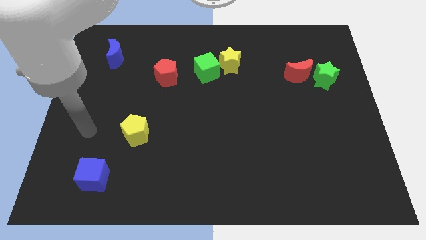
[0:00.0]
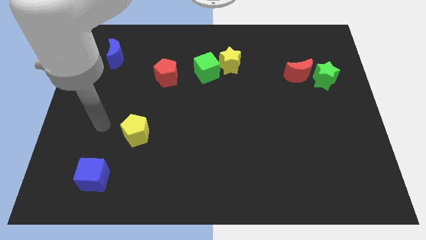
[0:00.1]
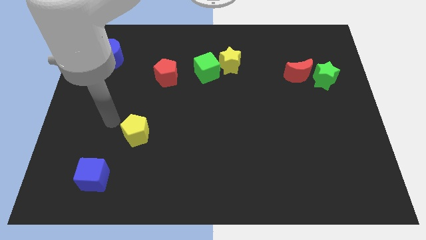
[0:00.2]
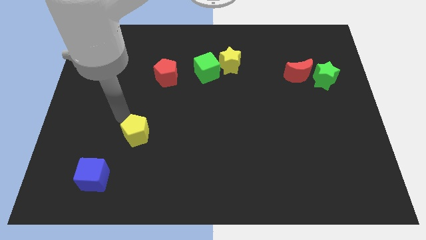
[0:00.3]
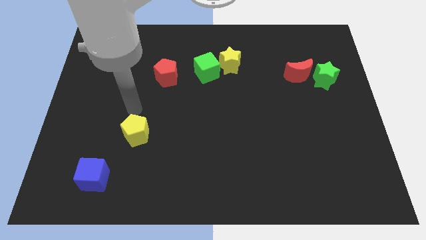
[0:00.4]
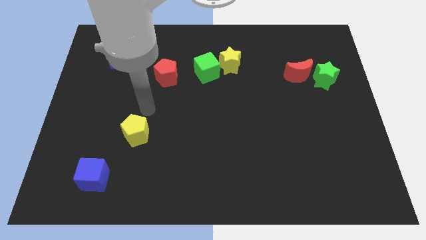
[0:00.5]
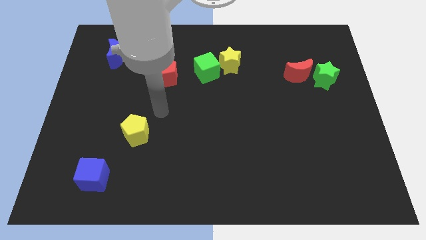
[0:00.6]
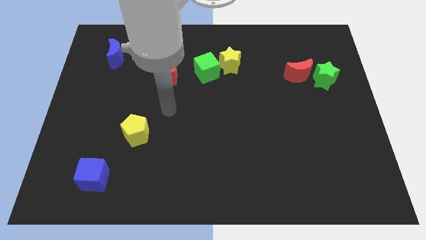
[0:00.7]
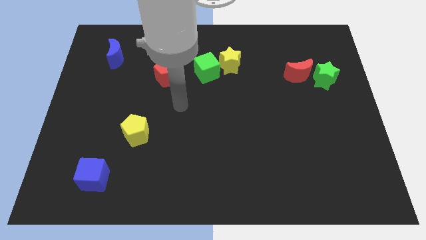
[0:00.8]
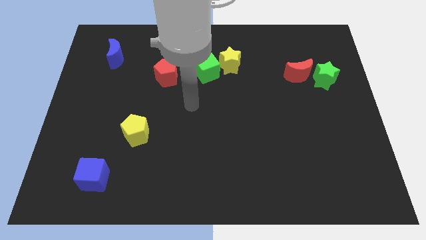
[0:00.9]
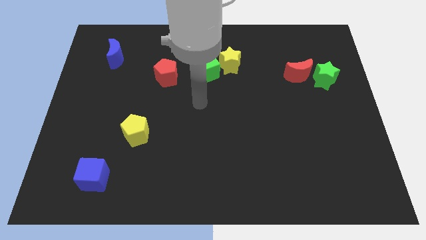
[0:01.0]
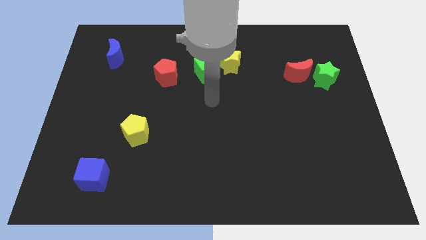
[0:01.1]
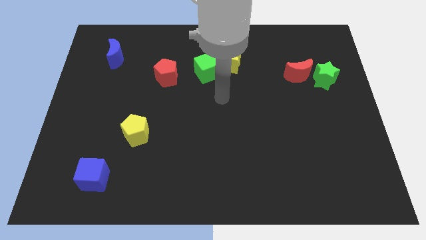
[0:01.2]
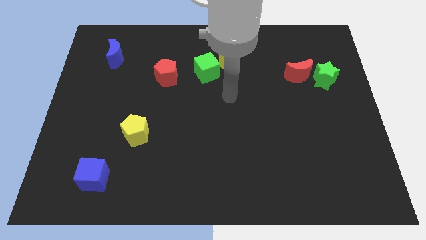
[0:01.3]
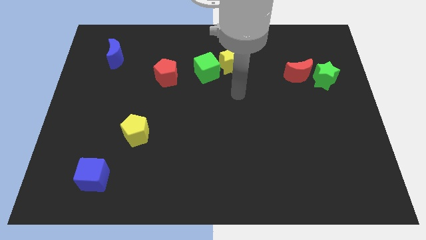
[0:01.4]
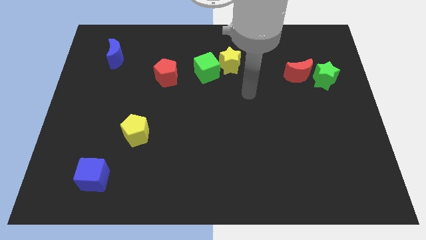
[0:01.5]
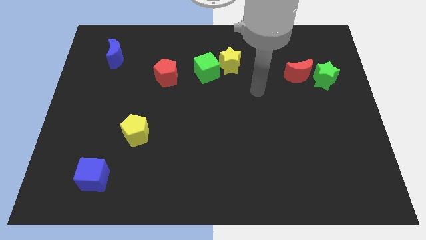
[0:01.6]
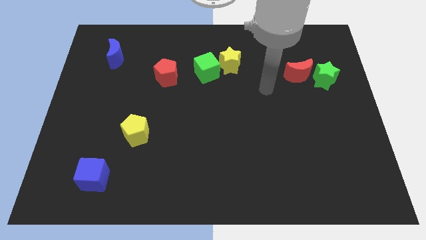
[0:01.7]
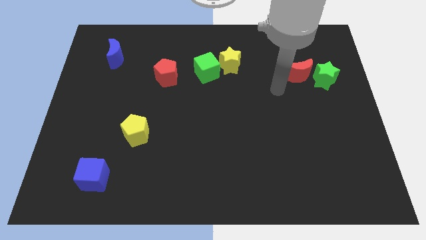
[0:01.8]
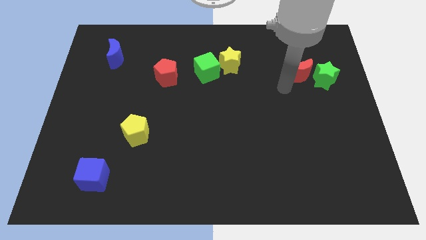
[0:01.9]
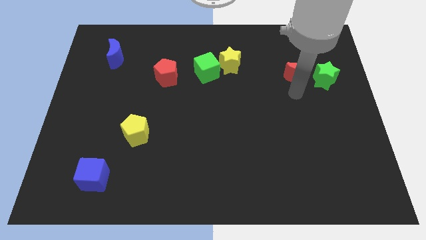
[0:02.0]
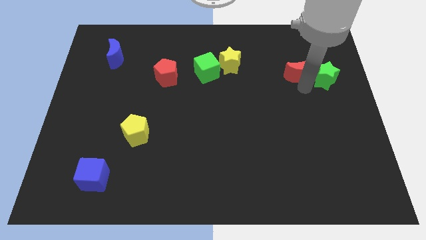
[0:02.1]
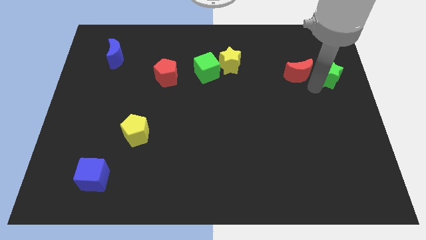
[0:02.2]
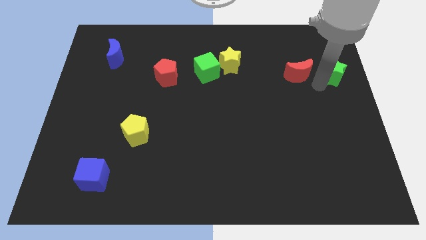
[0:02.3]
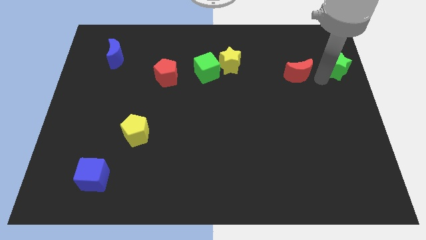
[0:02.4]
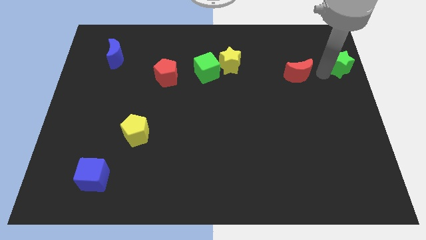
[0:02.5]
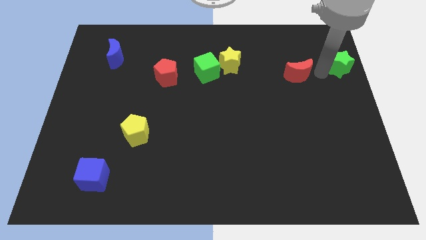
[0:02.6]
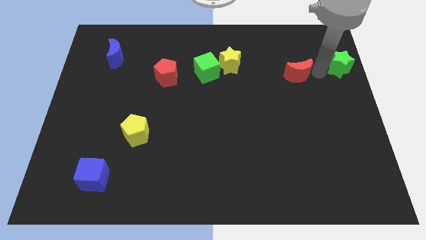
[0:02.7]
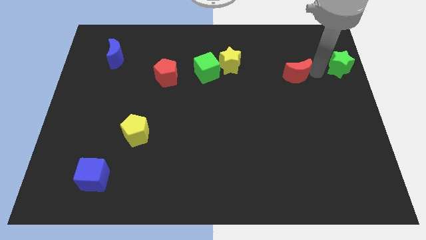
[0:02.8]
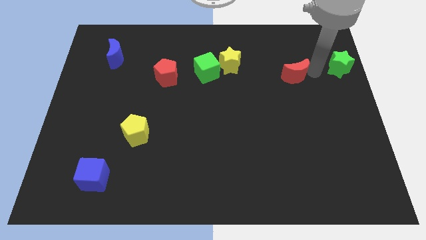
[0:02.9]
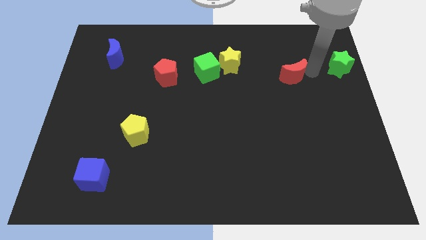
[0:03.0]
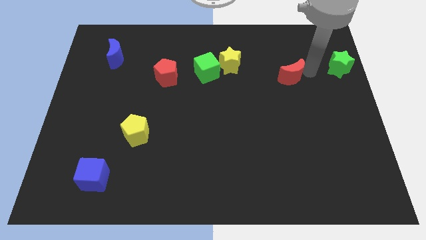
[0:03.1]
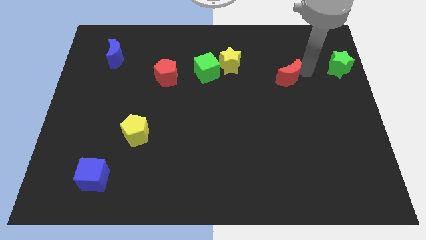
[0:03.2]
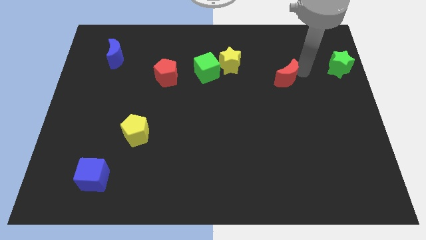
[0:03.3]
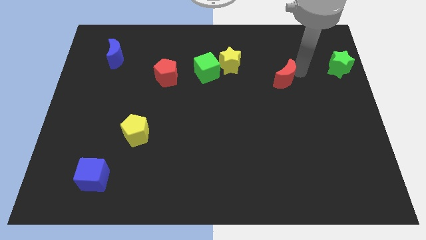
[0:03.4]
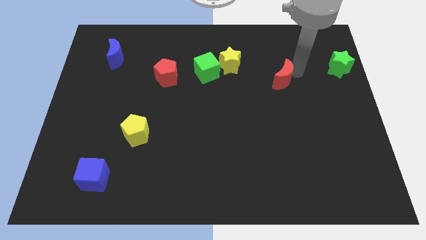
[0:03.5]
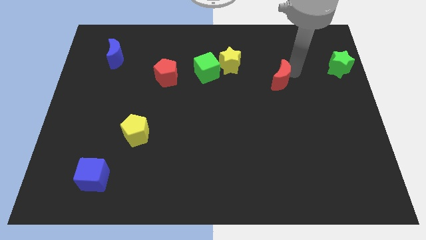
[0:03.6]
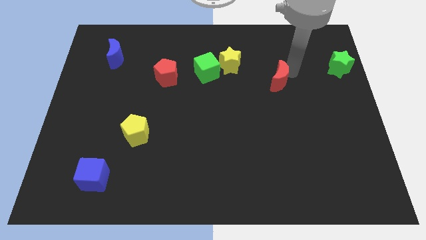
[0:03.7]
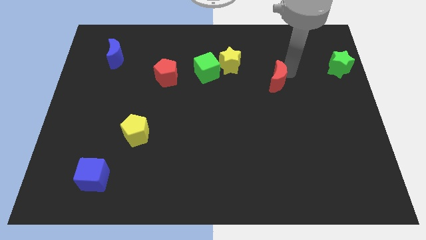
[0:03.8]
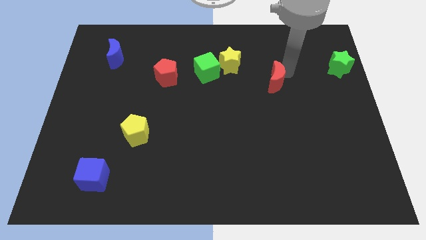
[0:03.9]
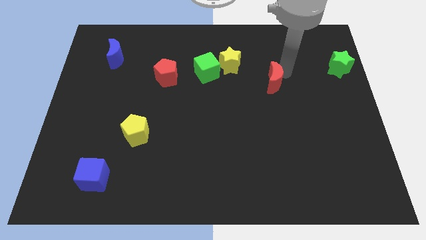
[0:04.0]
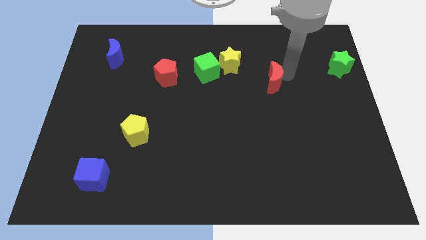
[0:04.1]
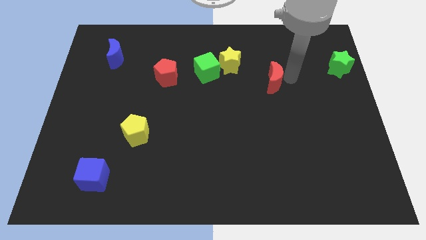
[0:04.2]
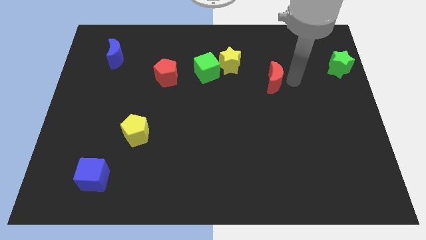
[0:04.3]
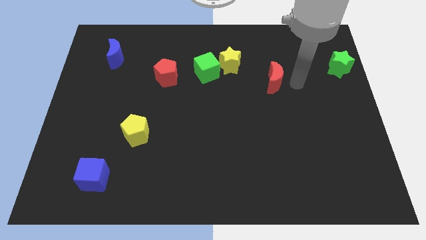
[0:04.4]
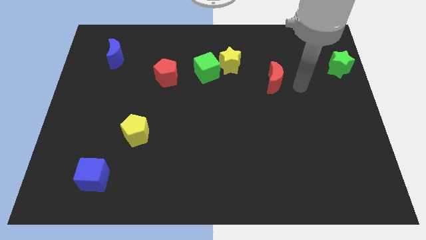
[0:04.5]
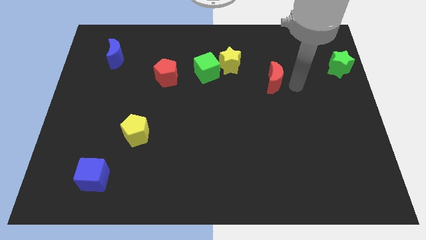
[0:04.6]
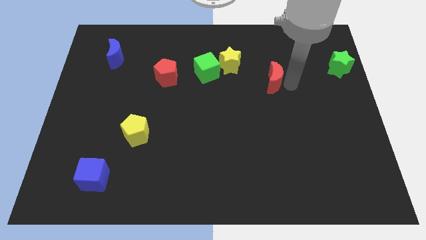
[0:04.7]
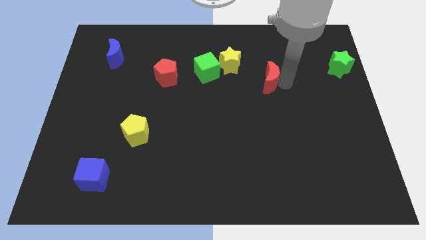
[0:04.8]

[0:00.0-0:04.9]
move the red moon a little left

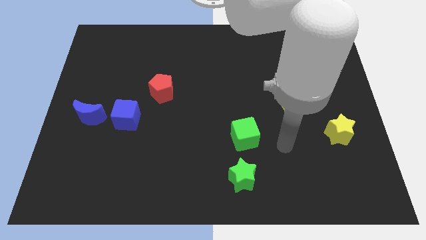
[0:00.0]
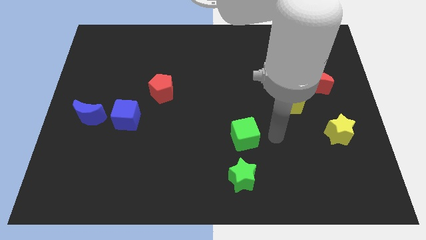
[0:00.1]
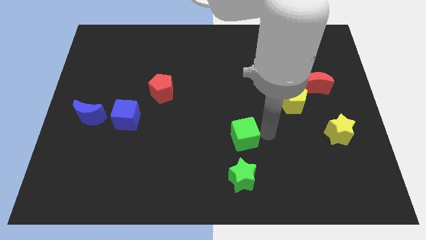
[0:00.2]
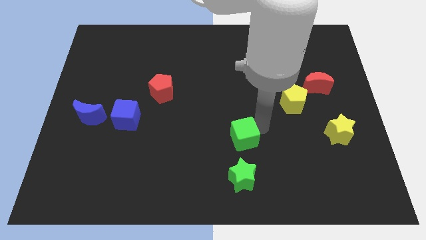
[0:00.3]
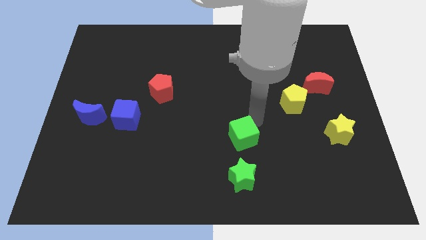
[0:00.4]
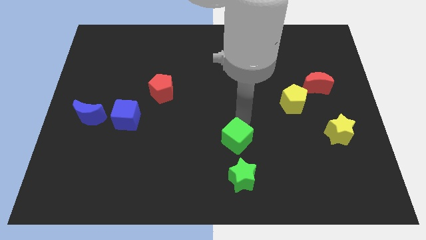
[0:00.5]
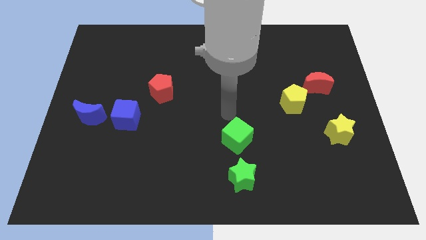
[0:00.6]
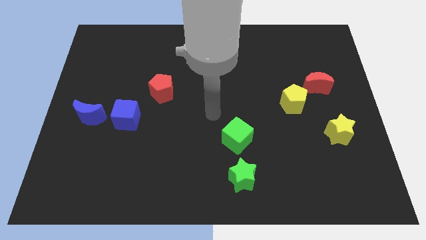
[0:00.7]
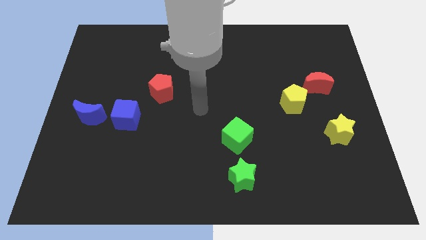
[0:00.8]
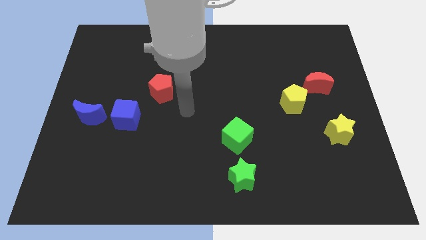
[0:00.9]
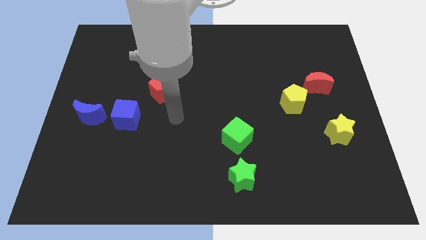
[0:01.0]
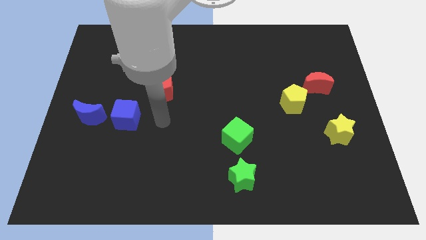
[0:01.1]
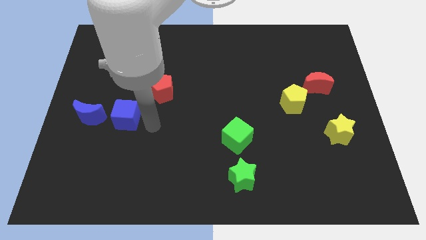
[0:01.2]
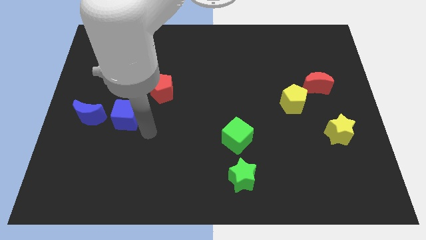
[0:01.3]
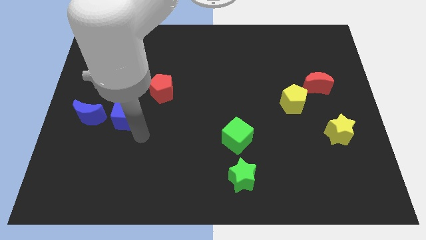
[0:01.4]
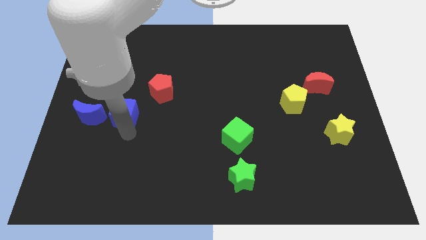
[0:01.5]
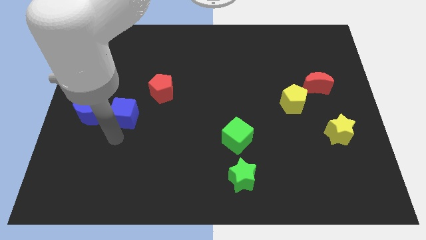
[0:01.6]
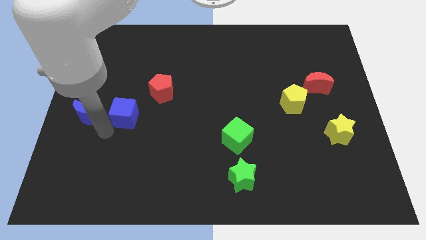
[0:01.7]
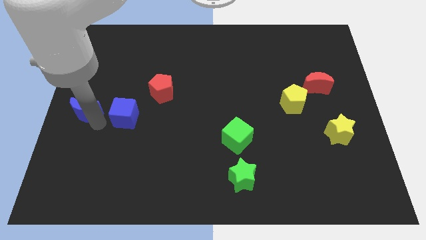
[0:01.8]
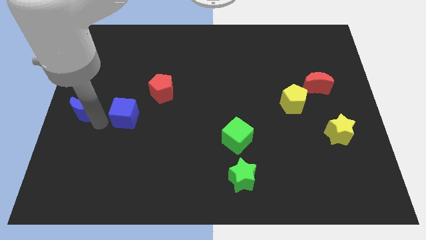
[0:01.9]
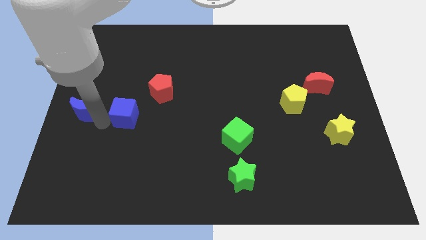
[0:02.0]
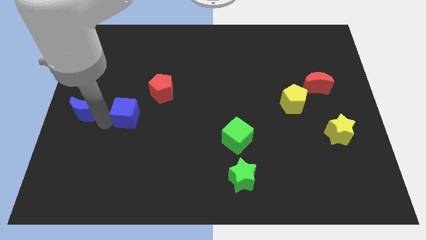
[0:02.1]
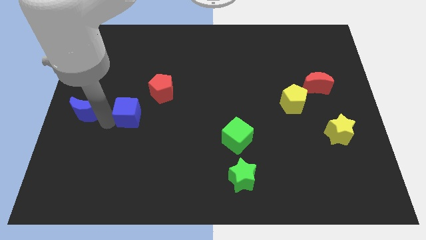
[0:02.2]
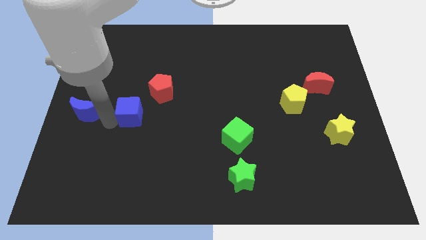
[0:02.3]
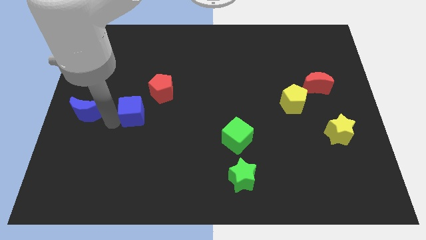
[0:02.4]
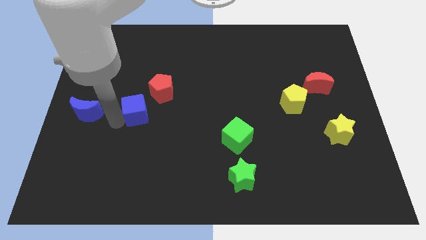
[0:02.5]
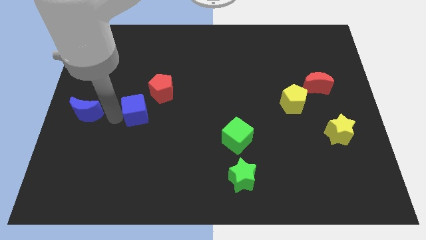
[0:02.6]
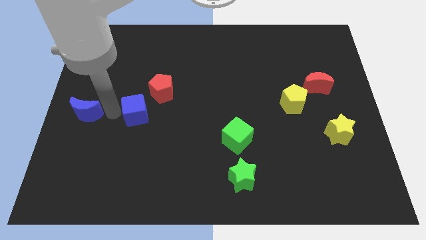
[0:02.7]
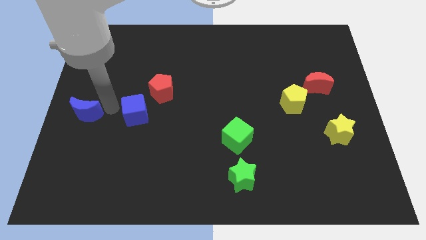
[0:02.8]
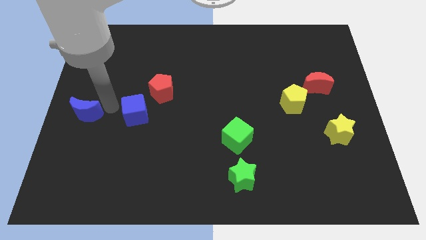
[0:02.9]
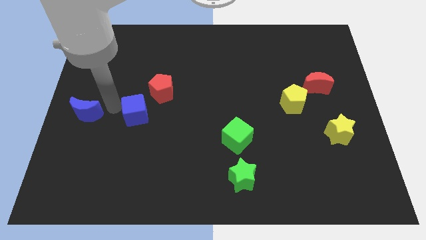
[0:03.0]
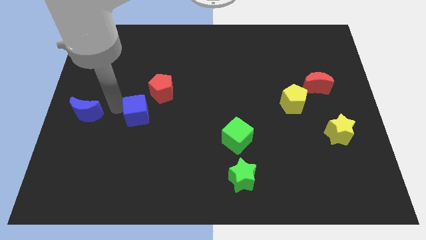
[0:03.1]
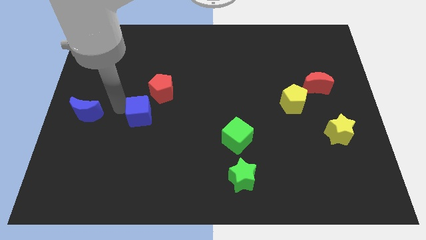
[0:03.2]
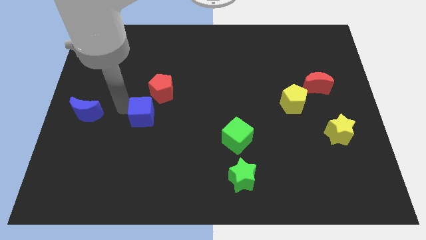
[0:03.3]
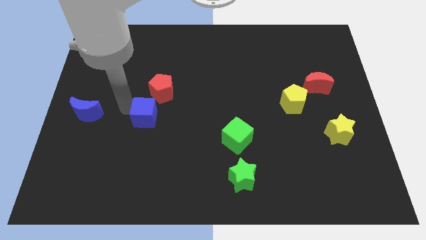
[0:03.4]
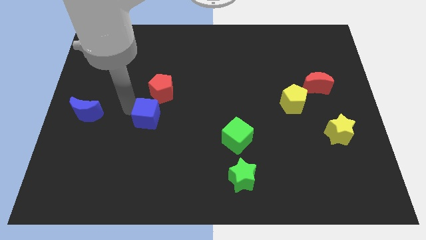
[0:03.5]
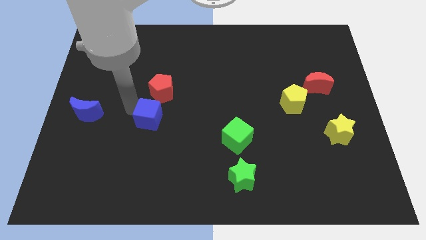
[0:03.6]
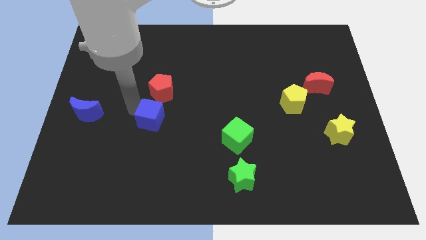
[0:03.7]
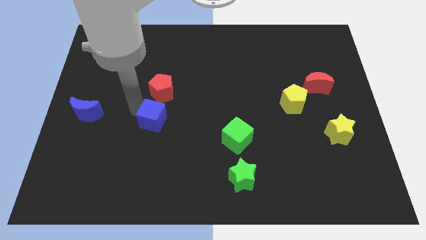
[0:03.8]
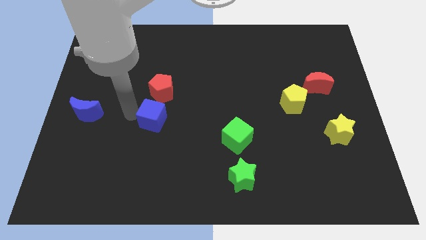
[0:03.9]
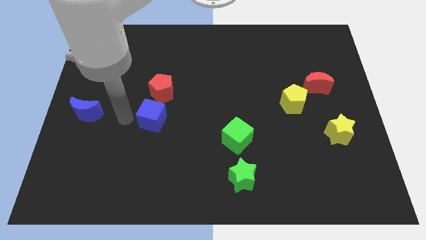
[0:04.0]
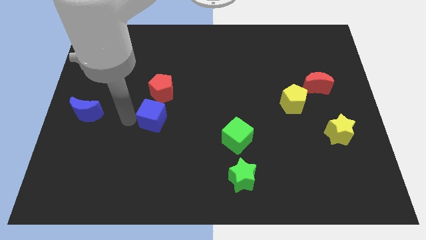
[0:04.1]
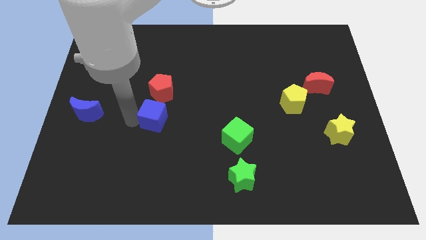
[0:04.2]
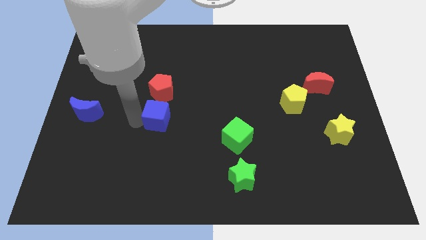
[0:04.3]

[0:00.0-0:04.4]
move the blue cube a bit to the right
